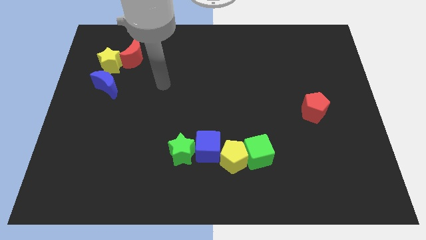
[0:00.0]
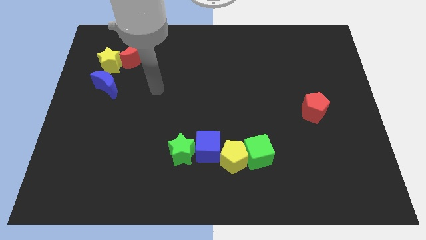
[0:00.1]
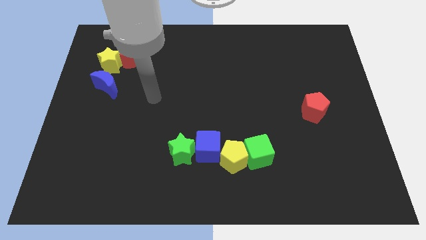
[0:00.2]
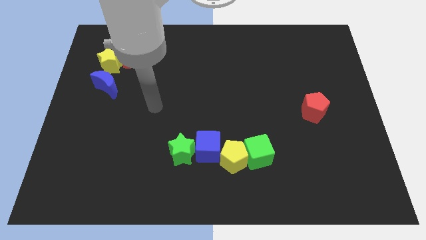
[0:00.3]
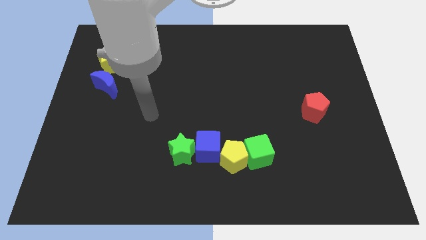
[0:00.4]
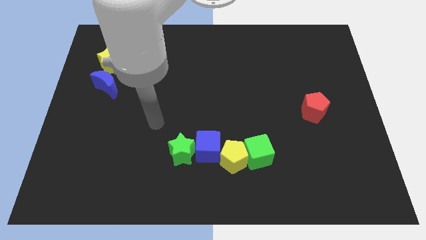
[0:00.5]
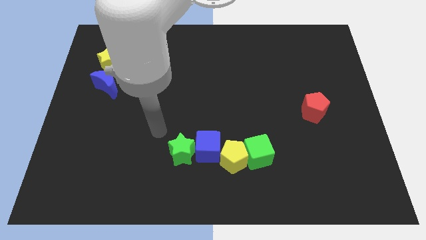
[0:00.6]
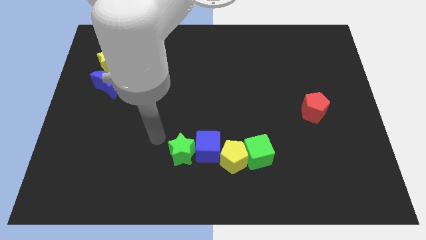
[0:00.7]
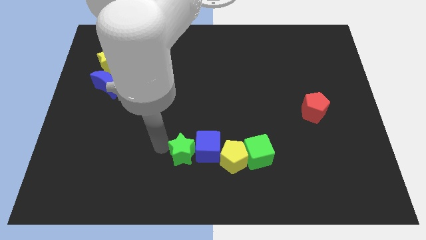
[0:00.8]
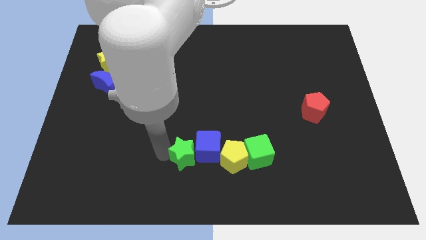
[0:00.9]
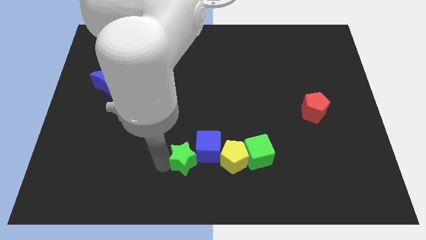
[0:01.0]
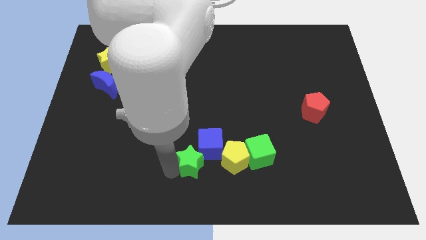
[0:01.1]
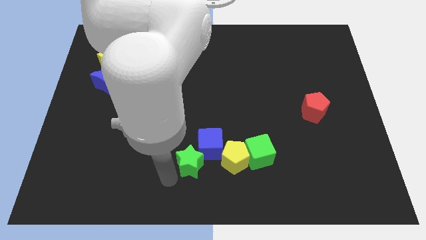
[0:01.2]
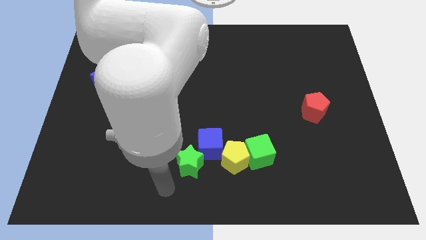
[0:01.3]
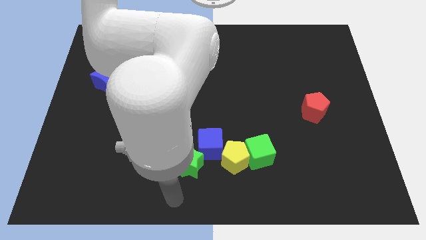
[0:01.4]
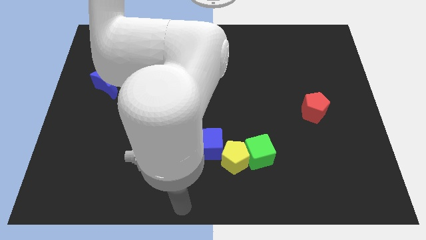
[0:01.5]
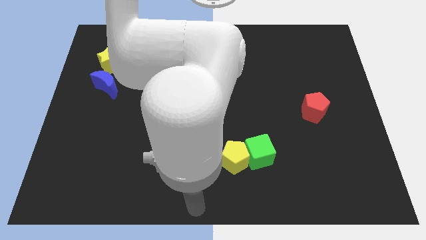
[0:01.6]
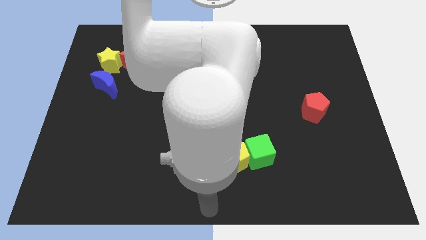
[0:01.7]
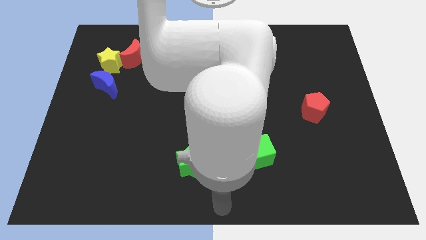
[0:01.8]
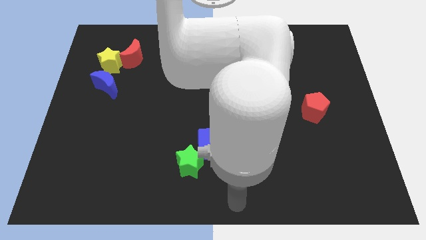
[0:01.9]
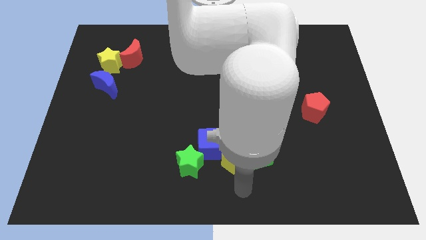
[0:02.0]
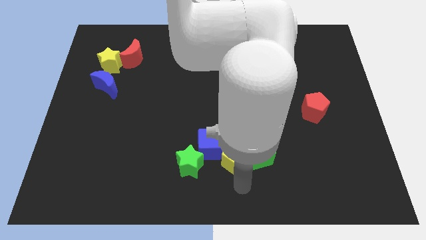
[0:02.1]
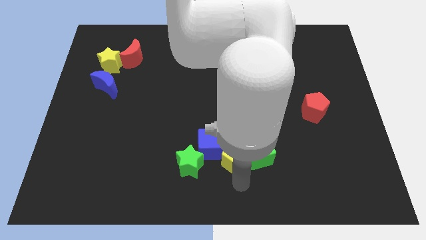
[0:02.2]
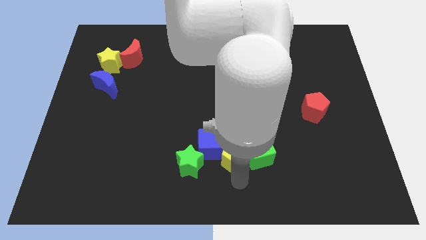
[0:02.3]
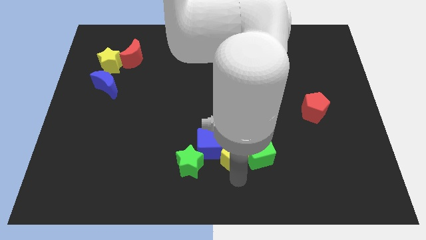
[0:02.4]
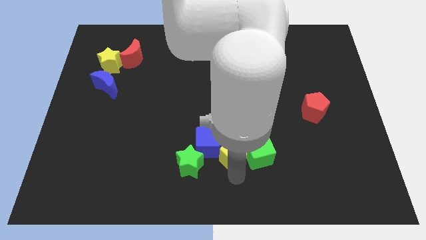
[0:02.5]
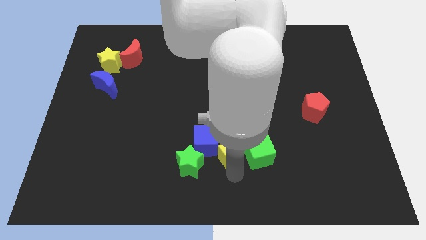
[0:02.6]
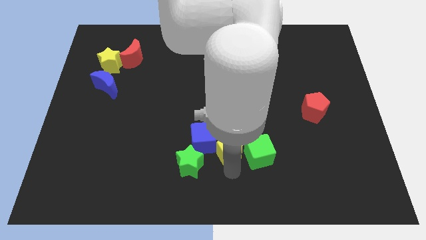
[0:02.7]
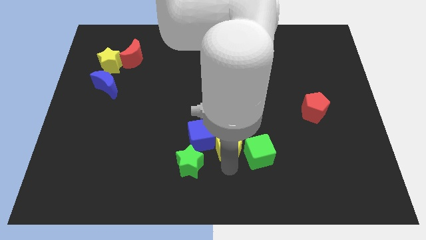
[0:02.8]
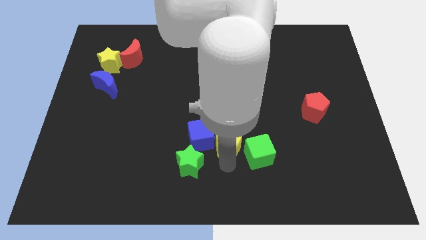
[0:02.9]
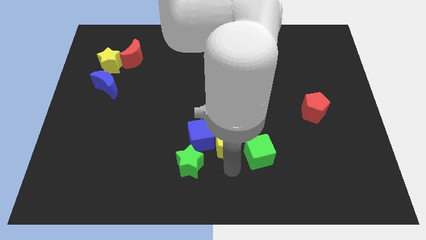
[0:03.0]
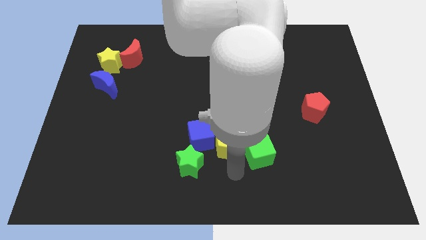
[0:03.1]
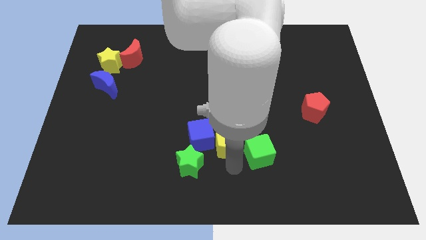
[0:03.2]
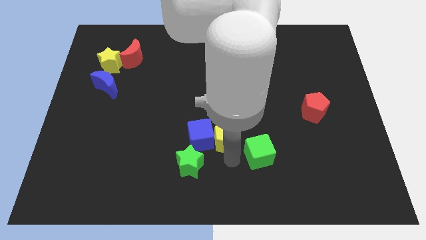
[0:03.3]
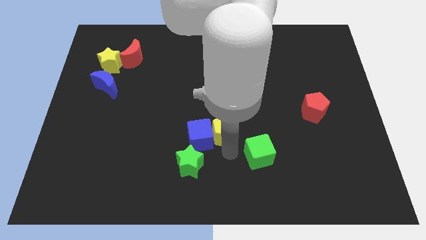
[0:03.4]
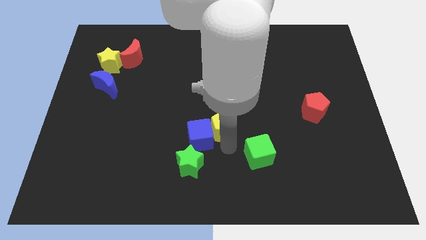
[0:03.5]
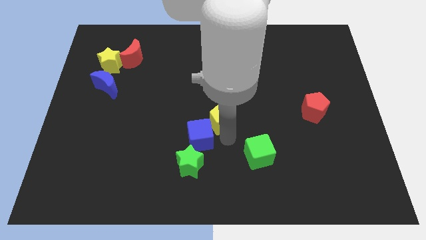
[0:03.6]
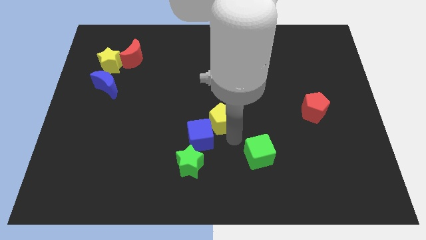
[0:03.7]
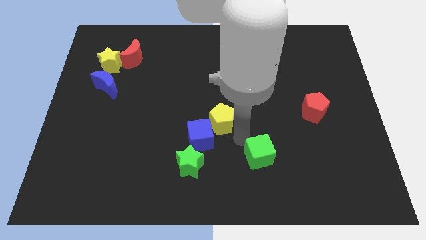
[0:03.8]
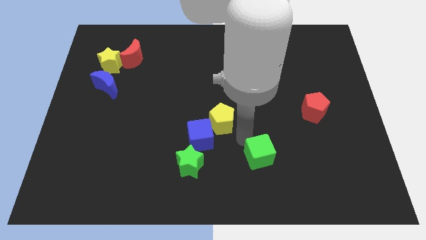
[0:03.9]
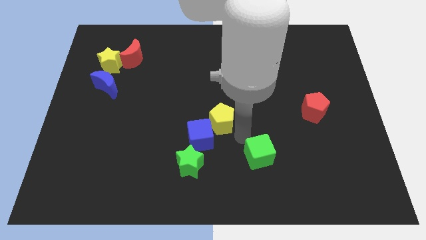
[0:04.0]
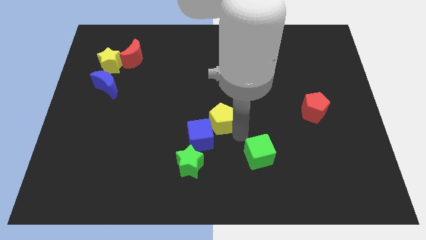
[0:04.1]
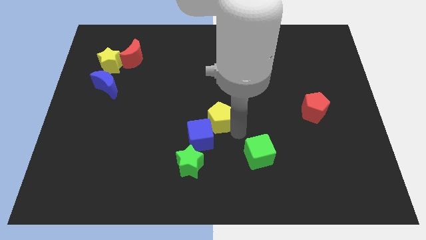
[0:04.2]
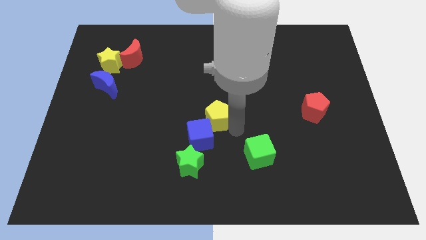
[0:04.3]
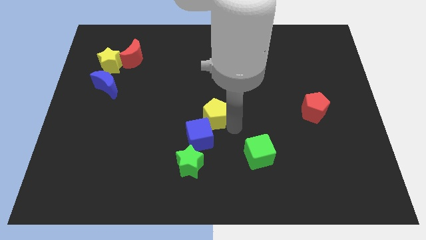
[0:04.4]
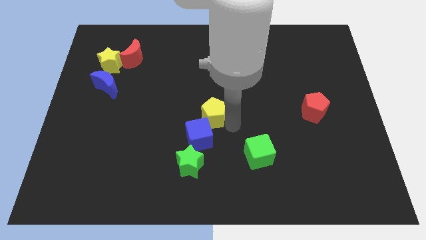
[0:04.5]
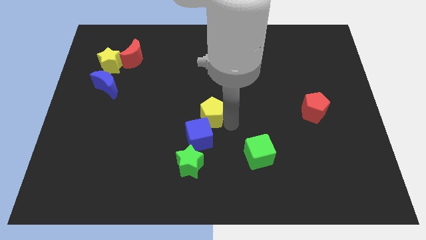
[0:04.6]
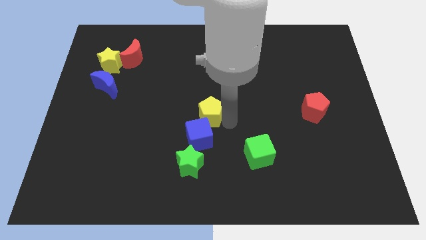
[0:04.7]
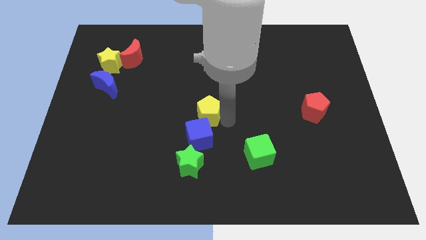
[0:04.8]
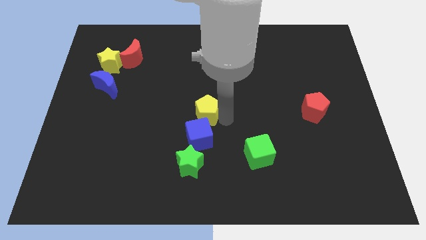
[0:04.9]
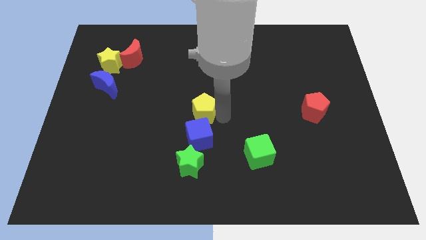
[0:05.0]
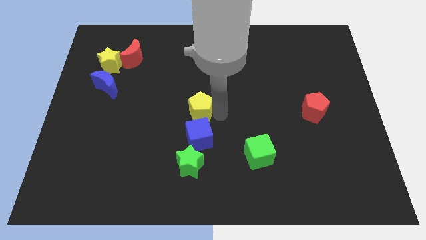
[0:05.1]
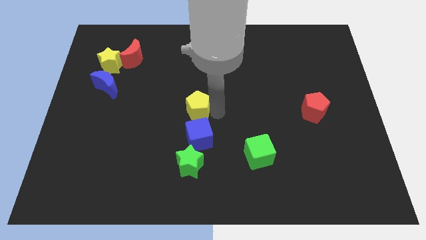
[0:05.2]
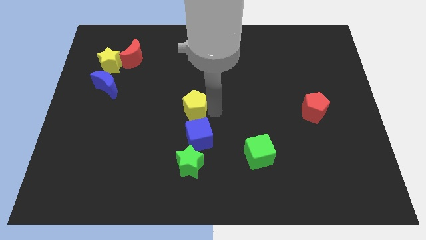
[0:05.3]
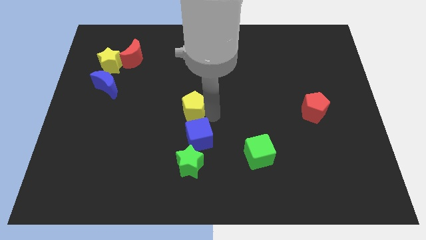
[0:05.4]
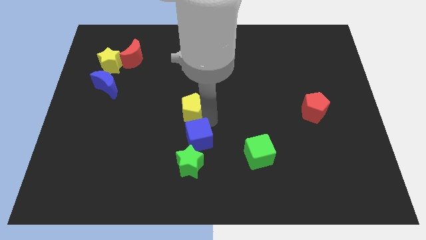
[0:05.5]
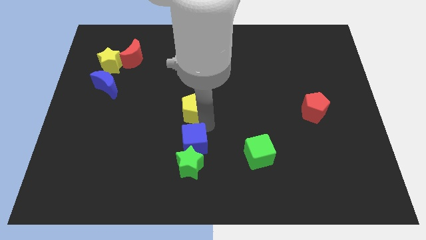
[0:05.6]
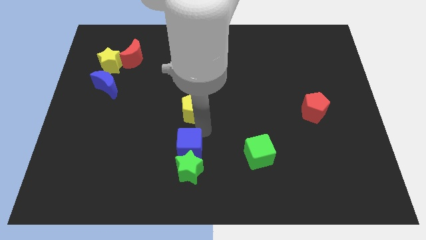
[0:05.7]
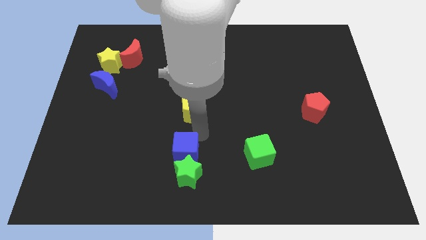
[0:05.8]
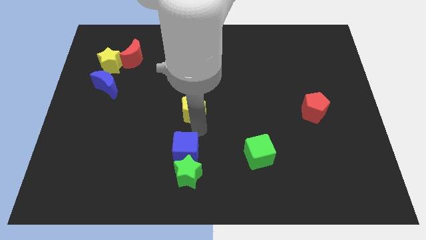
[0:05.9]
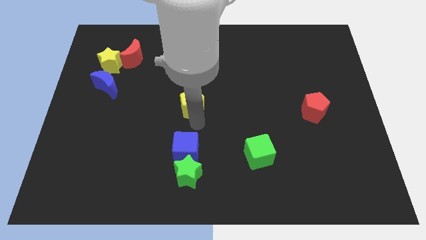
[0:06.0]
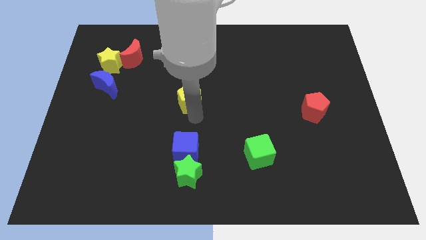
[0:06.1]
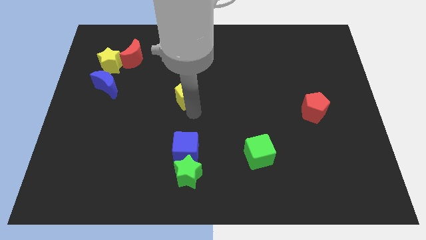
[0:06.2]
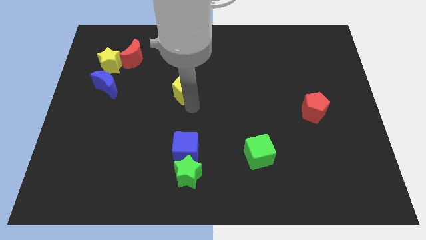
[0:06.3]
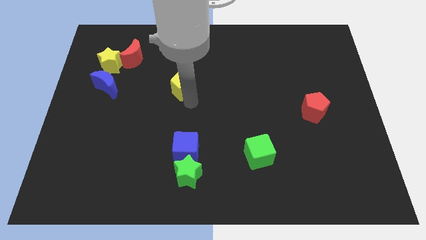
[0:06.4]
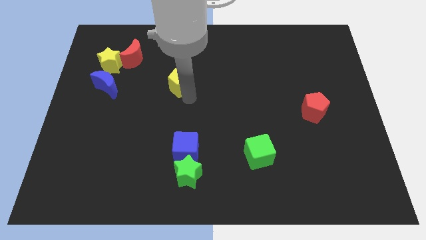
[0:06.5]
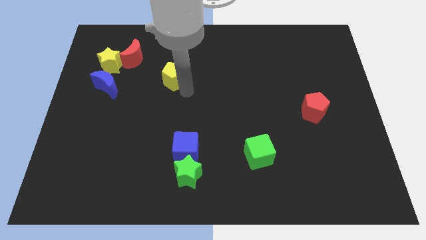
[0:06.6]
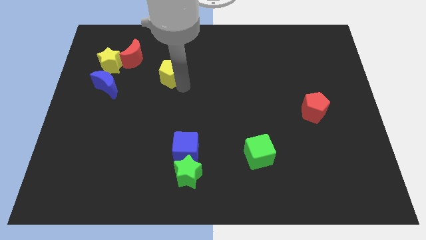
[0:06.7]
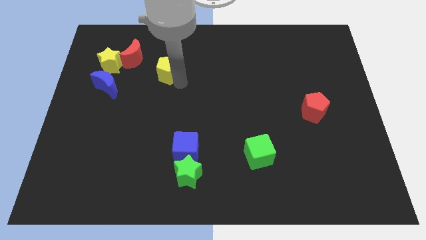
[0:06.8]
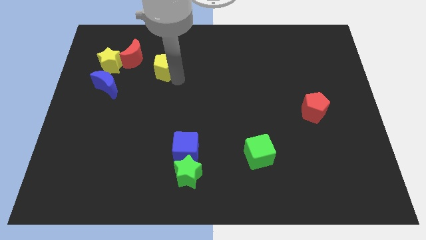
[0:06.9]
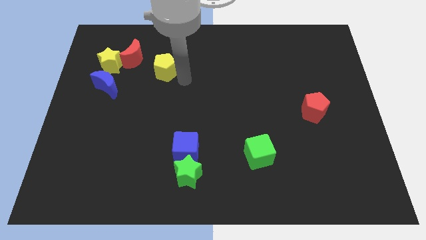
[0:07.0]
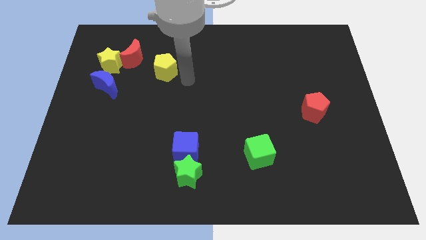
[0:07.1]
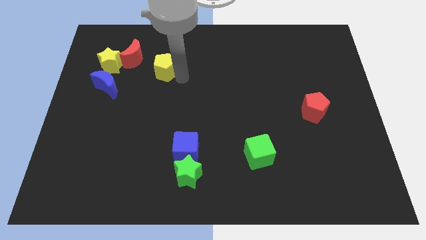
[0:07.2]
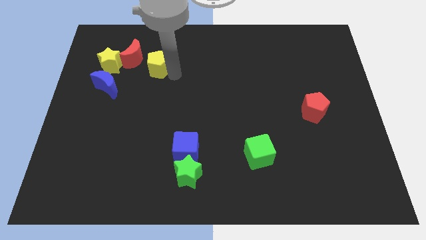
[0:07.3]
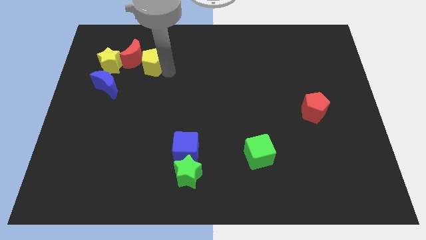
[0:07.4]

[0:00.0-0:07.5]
move the yellow pentagon next to the red moon
